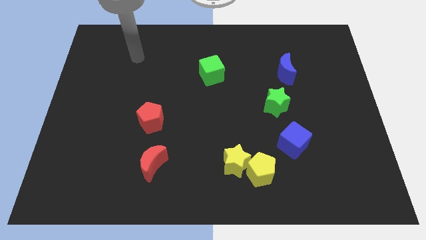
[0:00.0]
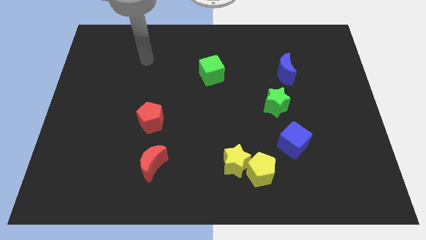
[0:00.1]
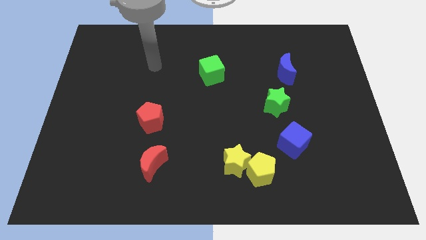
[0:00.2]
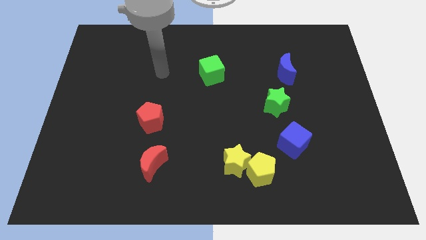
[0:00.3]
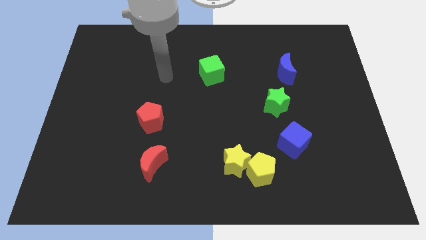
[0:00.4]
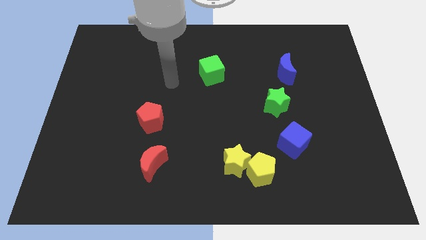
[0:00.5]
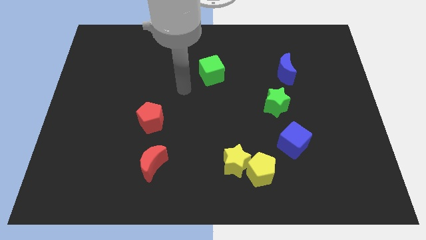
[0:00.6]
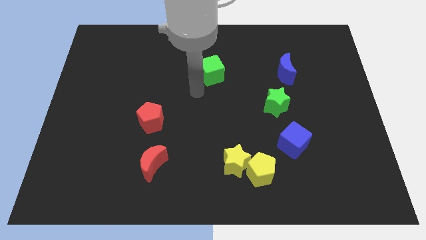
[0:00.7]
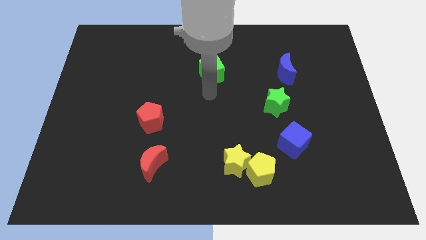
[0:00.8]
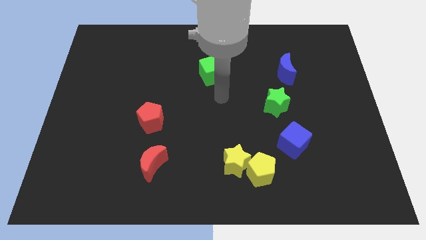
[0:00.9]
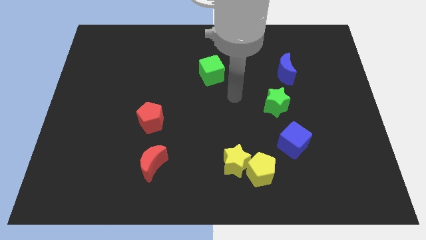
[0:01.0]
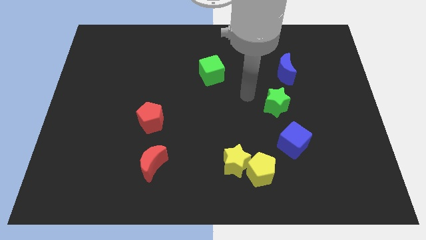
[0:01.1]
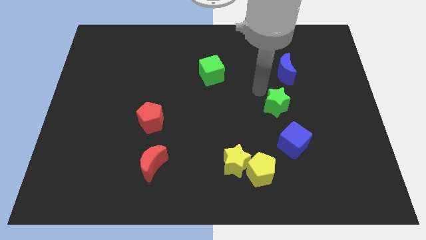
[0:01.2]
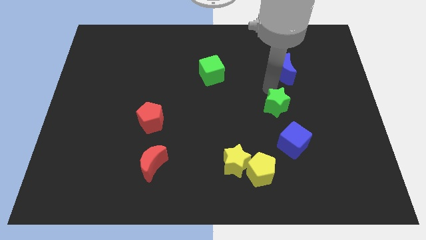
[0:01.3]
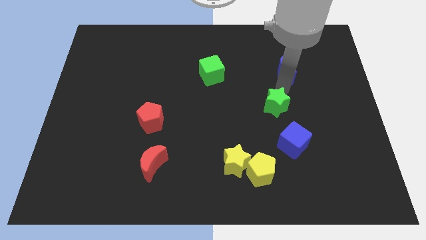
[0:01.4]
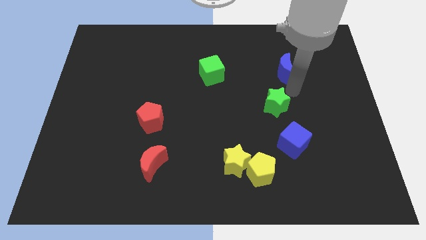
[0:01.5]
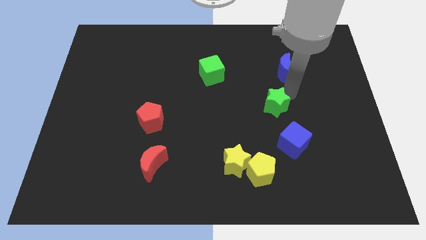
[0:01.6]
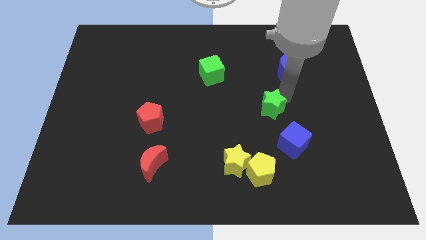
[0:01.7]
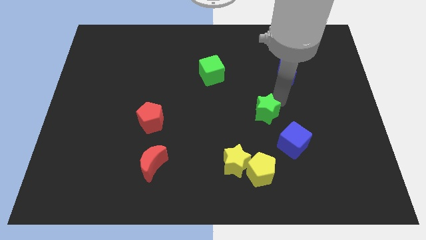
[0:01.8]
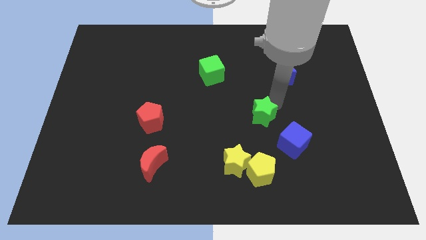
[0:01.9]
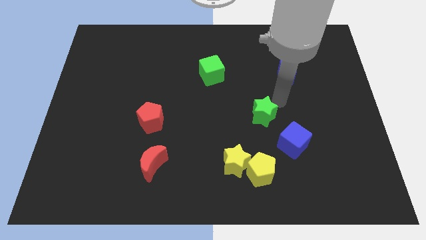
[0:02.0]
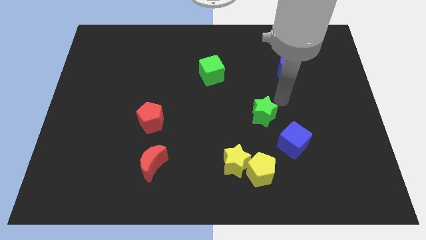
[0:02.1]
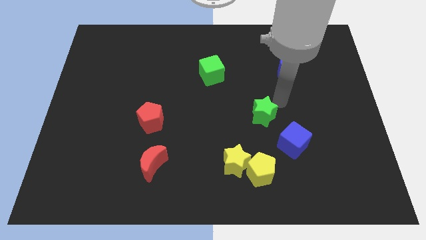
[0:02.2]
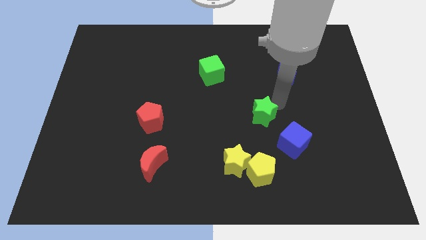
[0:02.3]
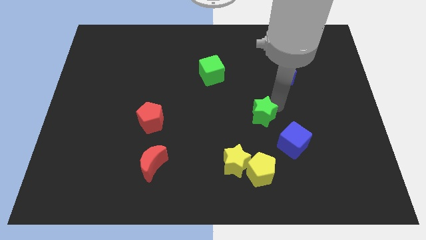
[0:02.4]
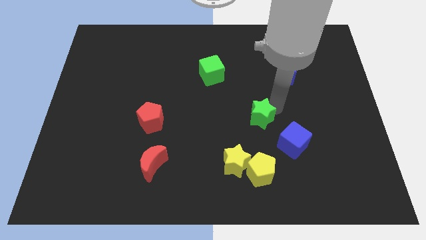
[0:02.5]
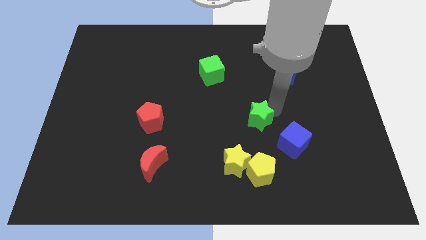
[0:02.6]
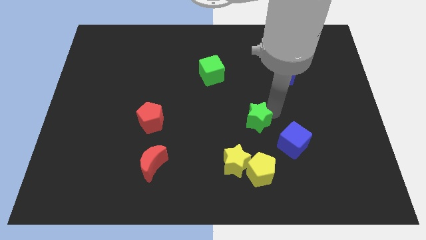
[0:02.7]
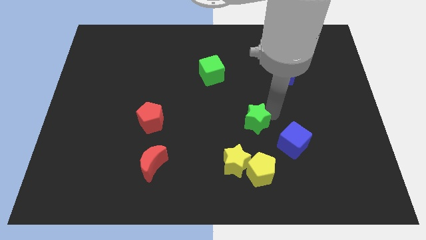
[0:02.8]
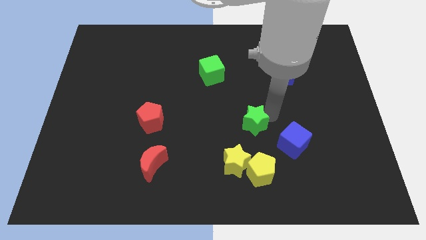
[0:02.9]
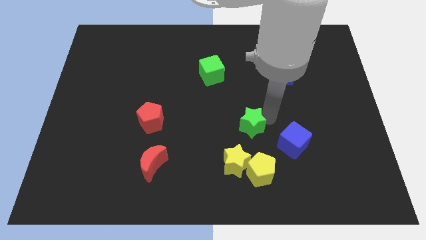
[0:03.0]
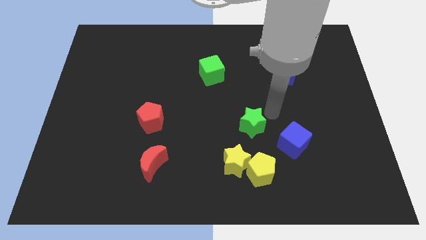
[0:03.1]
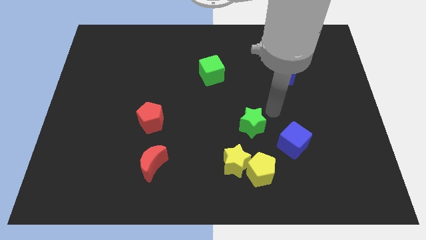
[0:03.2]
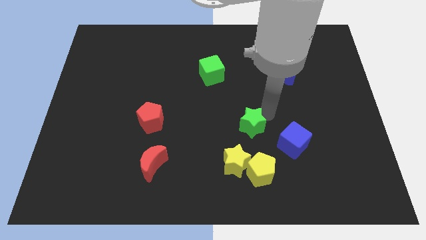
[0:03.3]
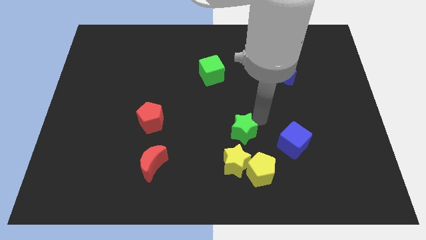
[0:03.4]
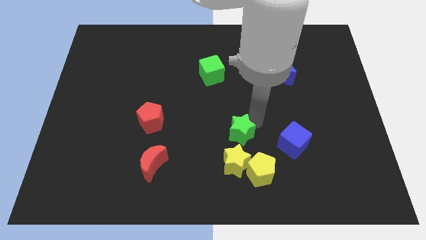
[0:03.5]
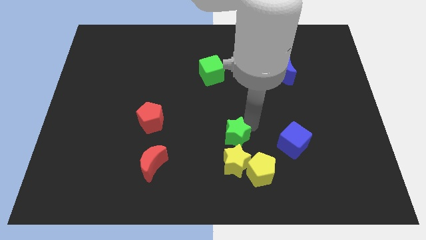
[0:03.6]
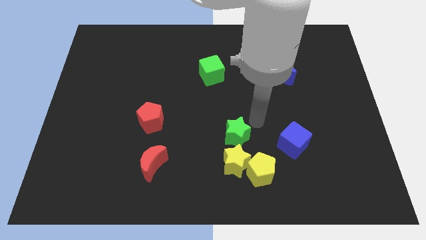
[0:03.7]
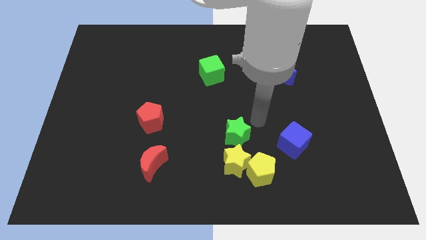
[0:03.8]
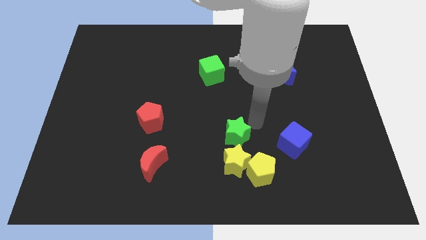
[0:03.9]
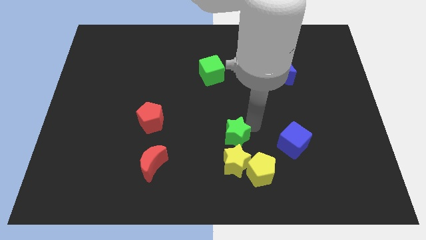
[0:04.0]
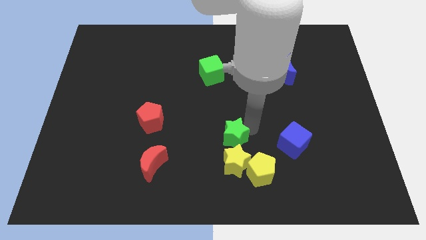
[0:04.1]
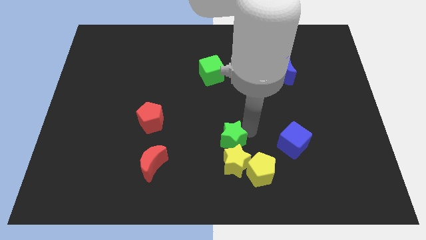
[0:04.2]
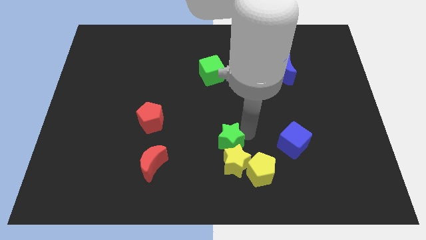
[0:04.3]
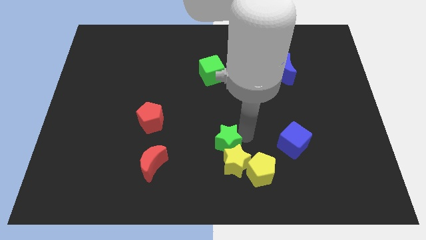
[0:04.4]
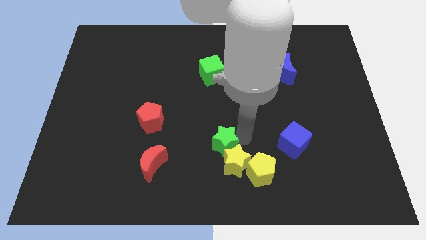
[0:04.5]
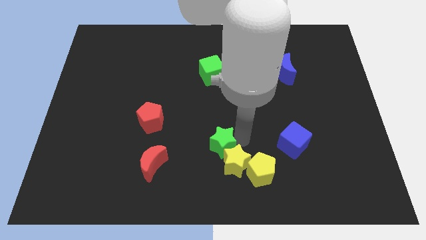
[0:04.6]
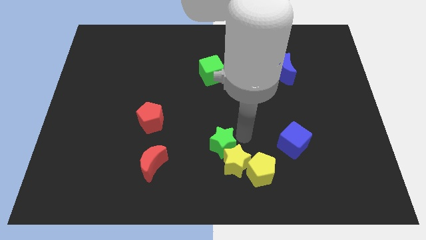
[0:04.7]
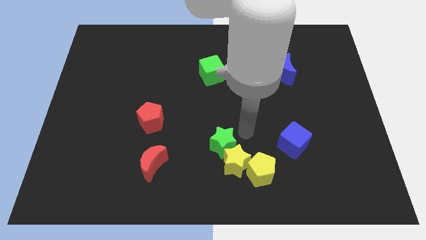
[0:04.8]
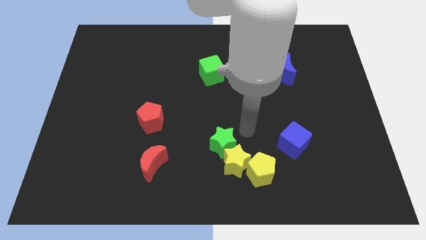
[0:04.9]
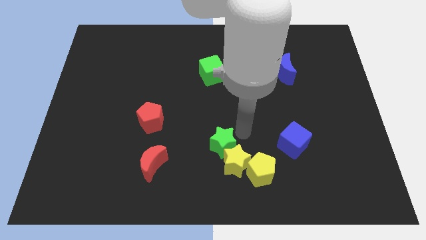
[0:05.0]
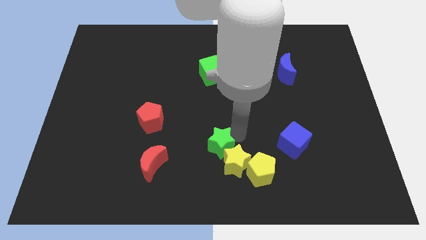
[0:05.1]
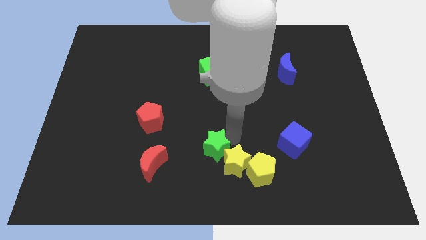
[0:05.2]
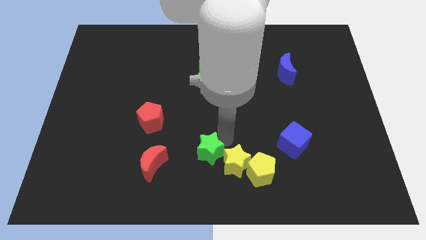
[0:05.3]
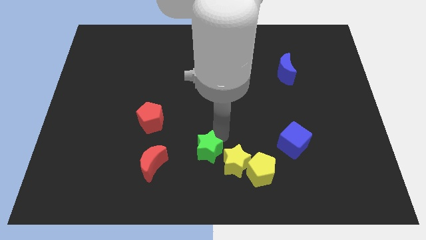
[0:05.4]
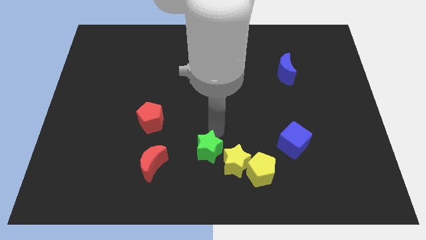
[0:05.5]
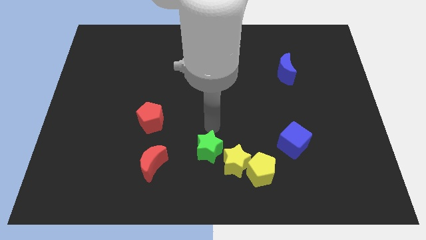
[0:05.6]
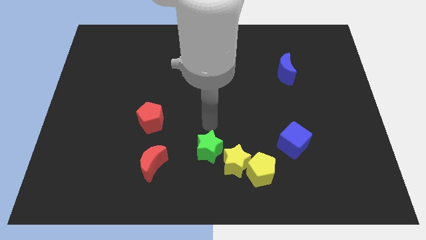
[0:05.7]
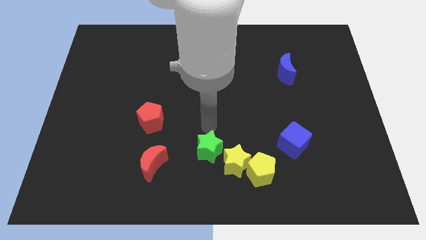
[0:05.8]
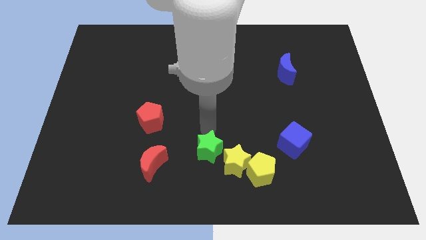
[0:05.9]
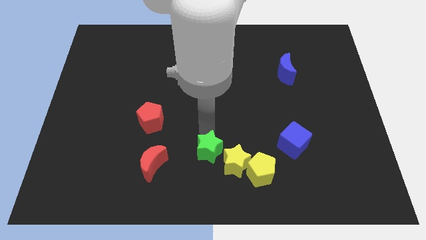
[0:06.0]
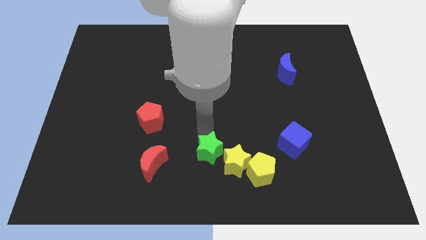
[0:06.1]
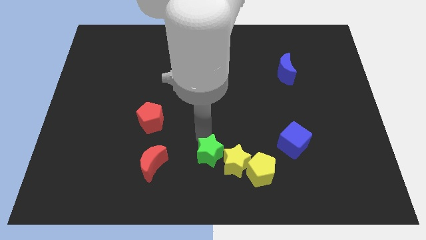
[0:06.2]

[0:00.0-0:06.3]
move the green star to the bottom side
